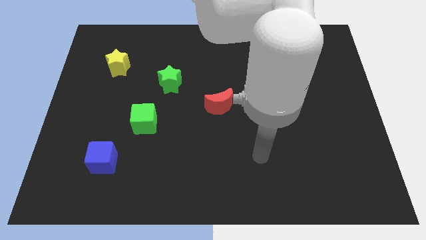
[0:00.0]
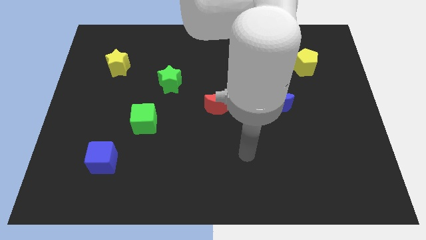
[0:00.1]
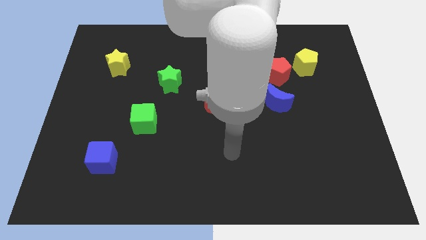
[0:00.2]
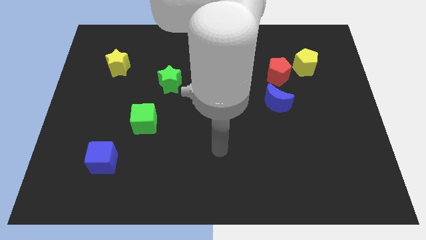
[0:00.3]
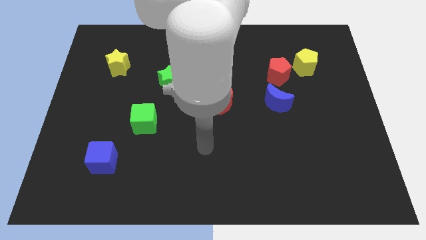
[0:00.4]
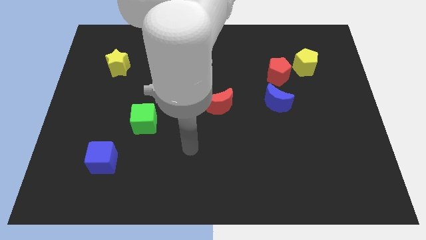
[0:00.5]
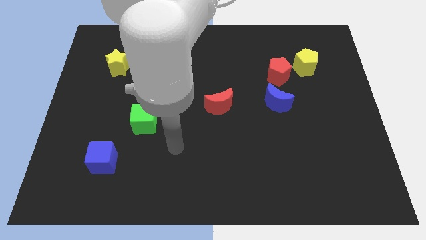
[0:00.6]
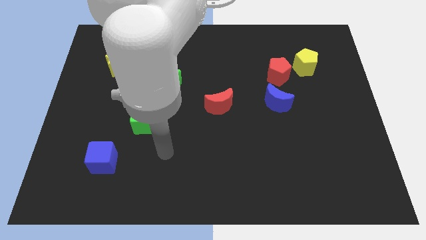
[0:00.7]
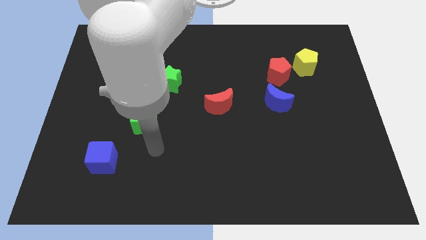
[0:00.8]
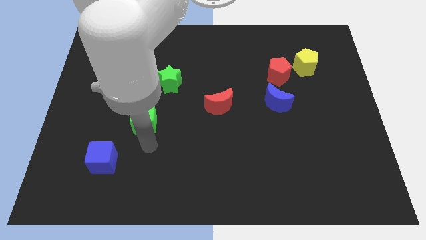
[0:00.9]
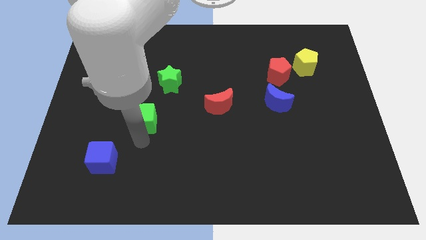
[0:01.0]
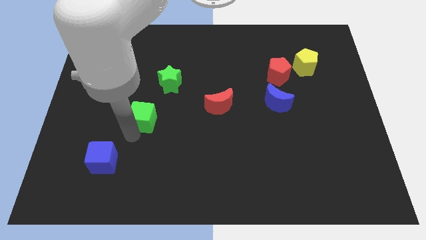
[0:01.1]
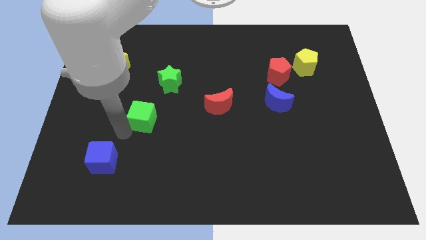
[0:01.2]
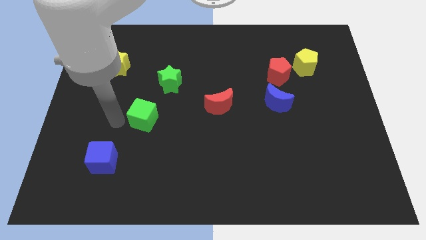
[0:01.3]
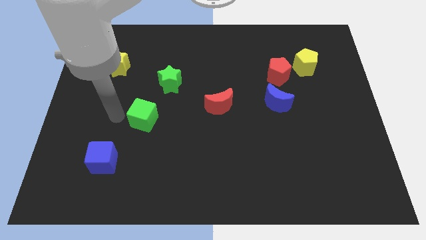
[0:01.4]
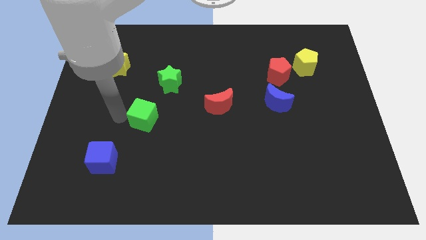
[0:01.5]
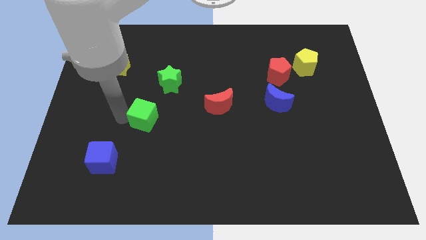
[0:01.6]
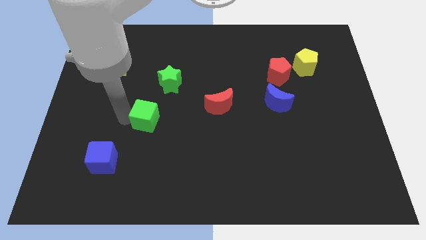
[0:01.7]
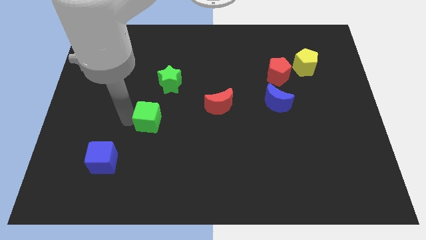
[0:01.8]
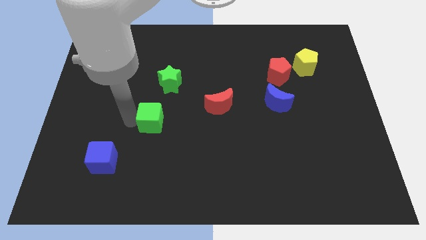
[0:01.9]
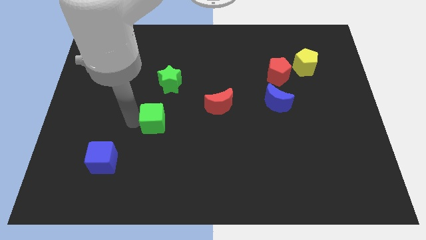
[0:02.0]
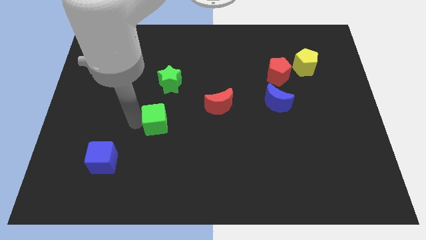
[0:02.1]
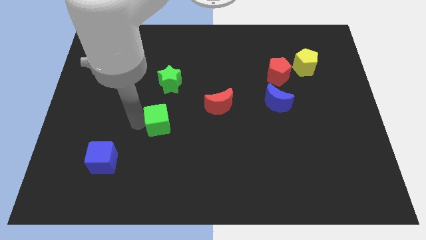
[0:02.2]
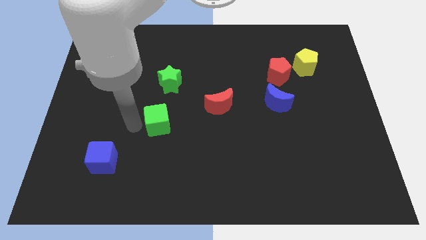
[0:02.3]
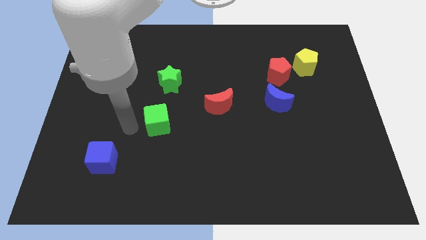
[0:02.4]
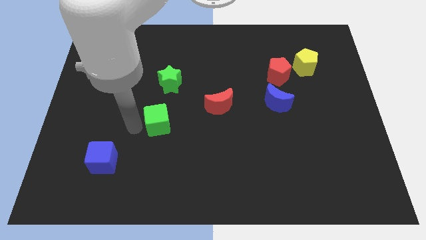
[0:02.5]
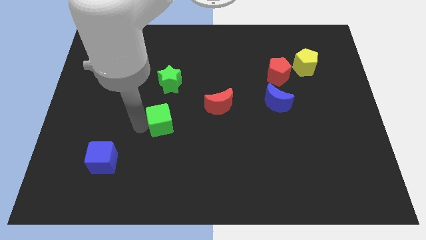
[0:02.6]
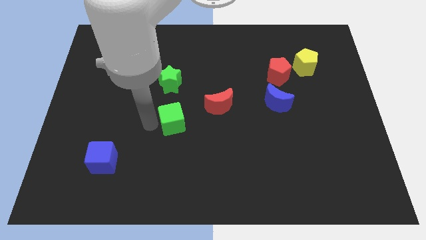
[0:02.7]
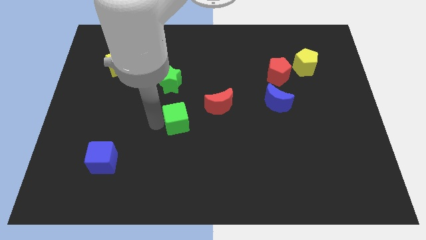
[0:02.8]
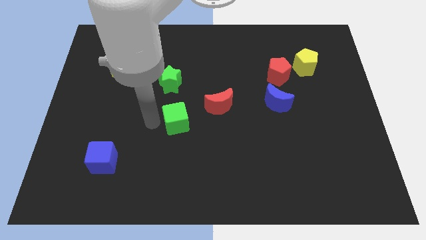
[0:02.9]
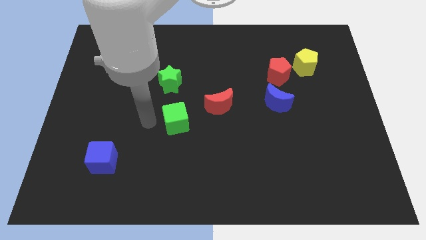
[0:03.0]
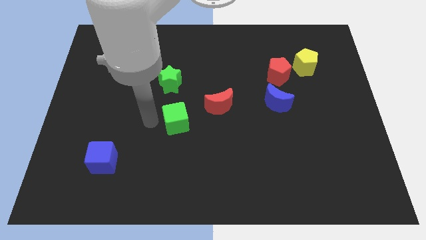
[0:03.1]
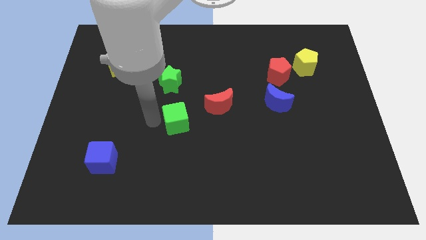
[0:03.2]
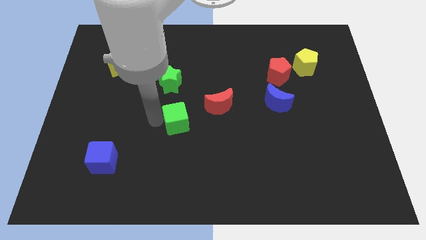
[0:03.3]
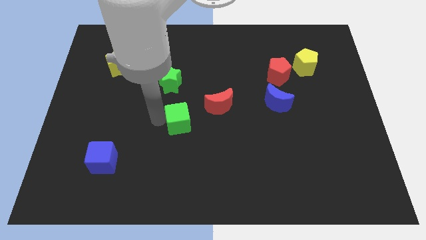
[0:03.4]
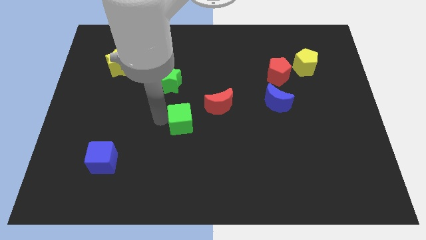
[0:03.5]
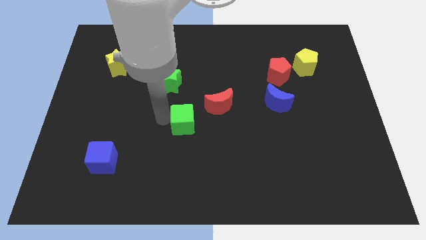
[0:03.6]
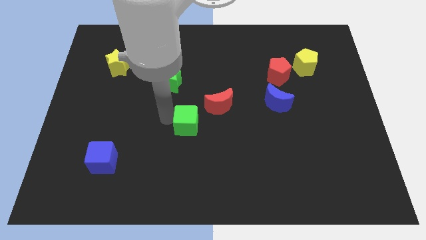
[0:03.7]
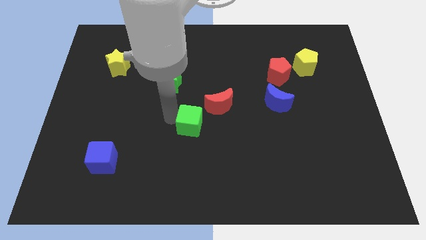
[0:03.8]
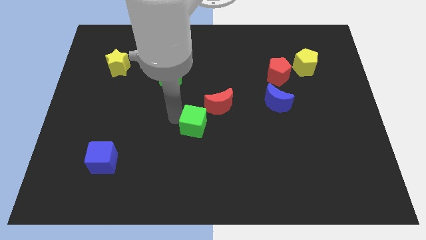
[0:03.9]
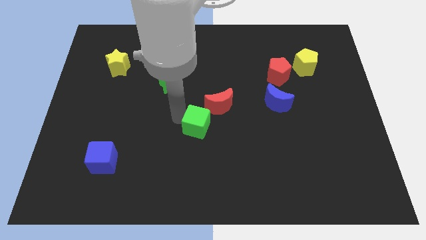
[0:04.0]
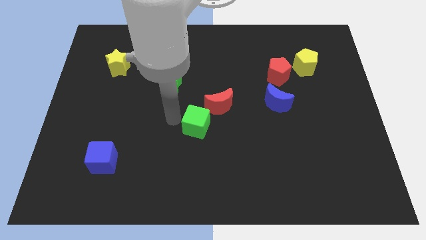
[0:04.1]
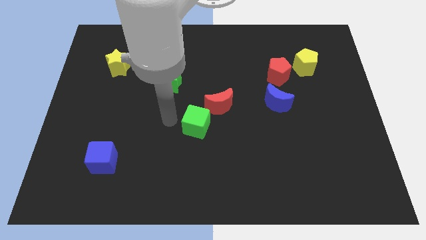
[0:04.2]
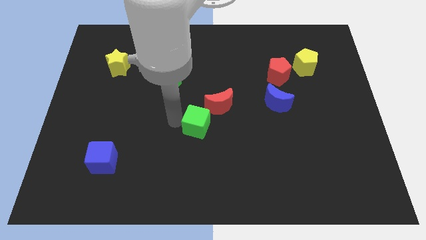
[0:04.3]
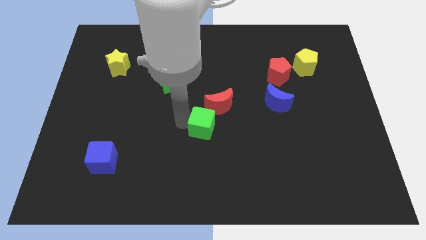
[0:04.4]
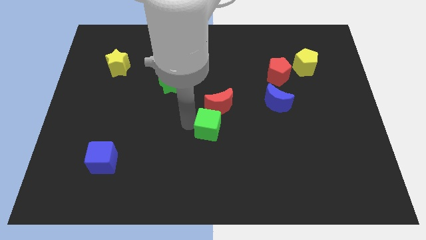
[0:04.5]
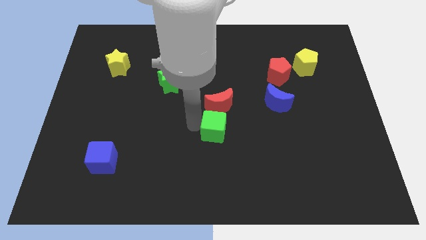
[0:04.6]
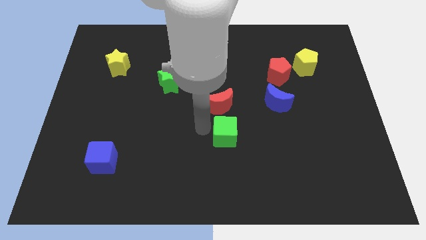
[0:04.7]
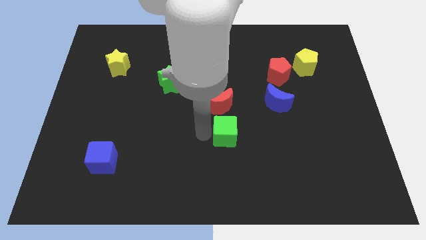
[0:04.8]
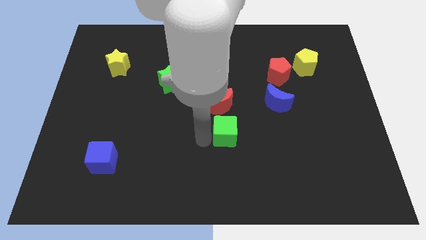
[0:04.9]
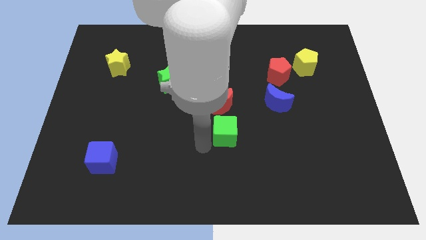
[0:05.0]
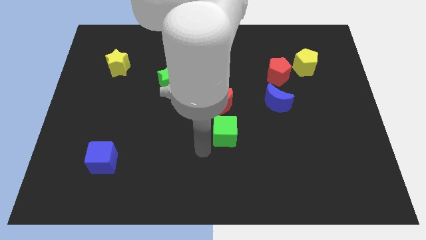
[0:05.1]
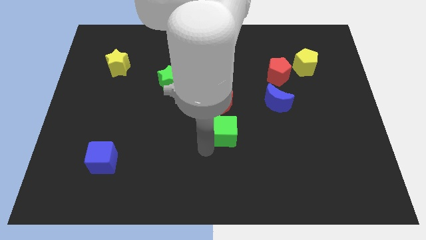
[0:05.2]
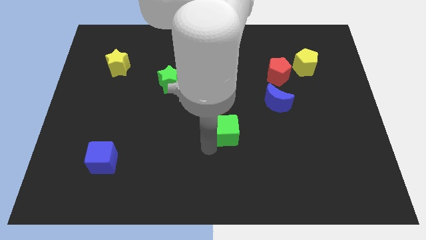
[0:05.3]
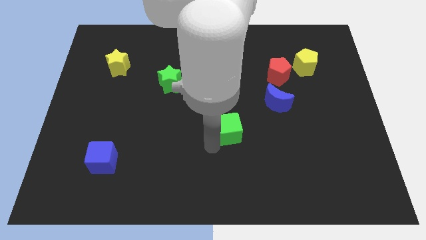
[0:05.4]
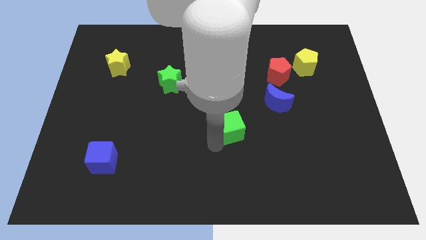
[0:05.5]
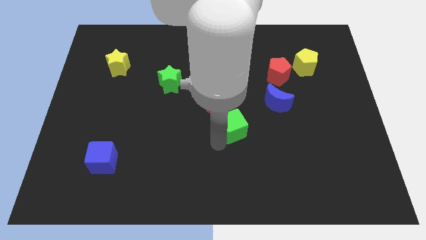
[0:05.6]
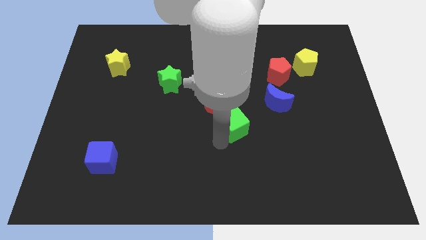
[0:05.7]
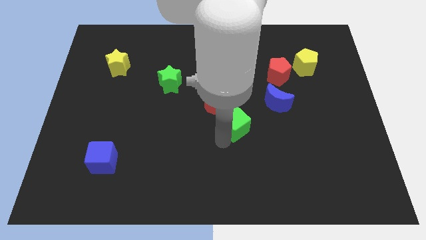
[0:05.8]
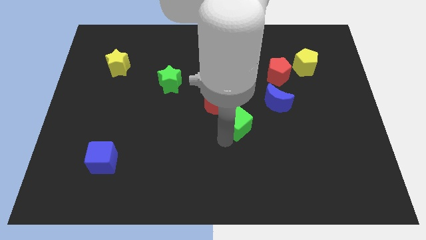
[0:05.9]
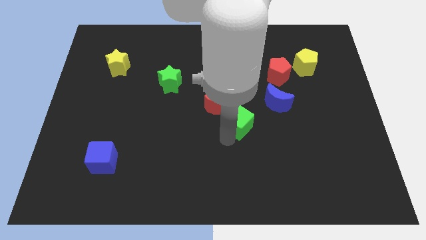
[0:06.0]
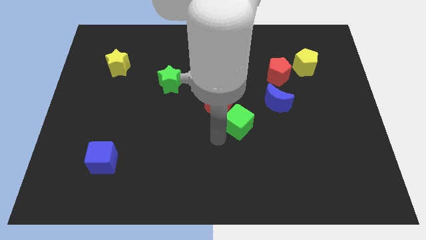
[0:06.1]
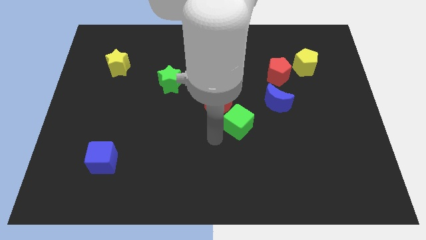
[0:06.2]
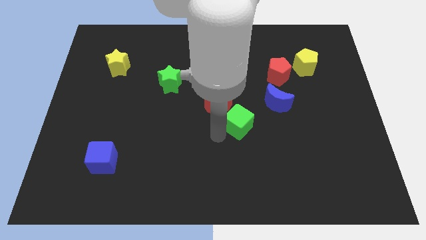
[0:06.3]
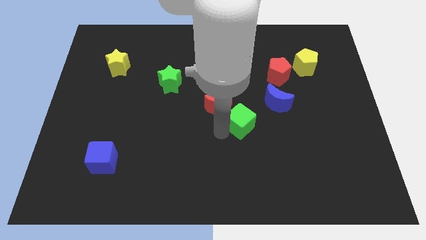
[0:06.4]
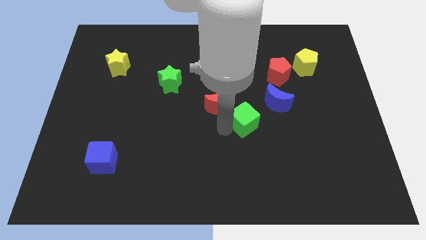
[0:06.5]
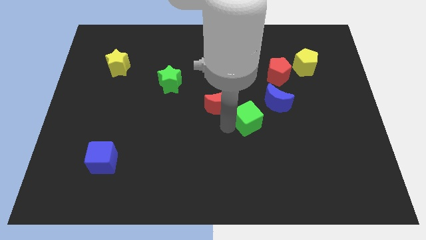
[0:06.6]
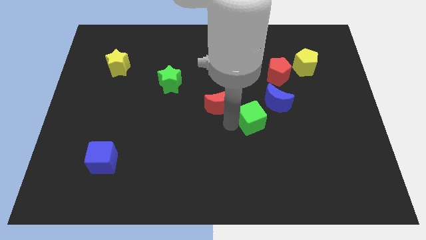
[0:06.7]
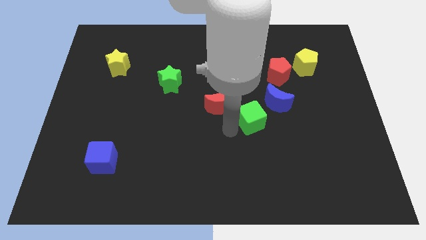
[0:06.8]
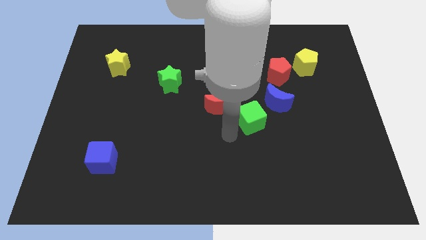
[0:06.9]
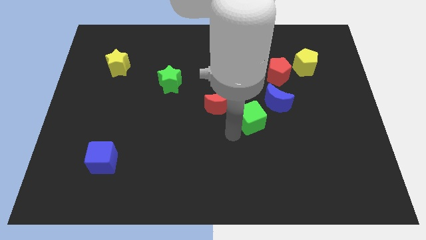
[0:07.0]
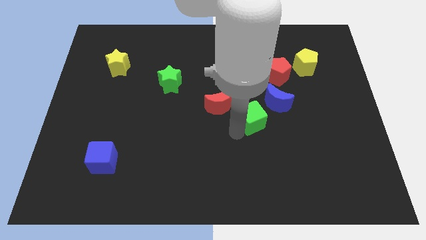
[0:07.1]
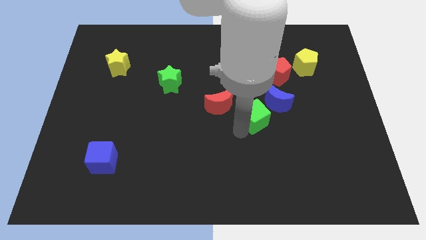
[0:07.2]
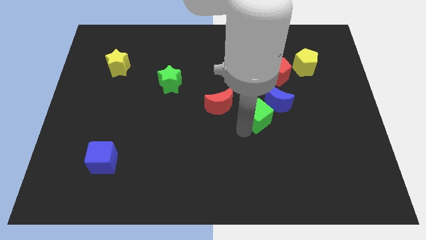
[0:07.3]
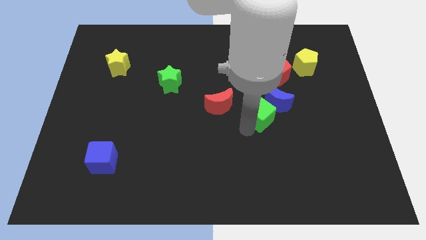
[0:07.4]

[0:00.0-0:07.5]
move the green cube to the blue moon

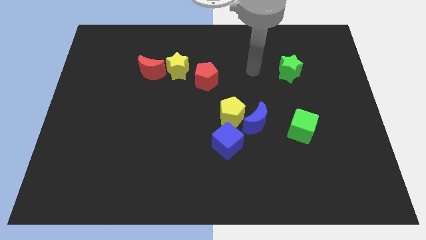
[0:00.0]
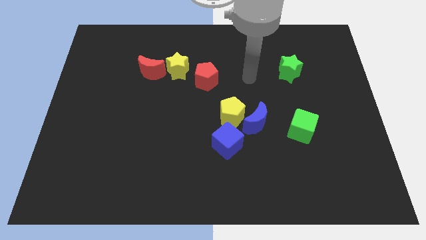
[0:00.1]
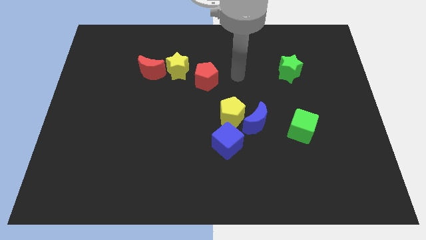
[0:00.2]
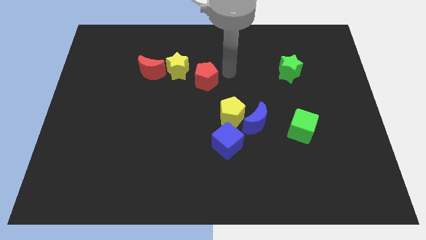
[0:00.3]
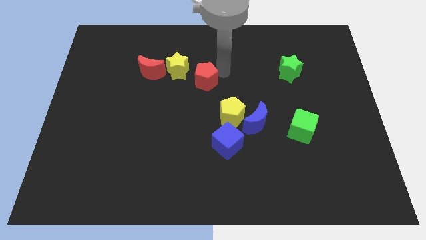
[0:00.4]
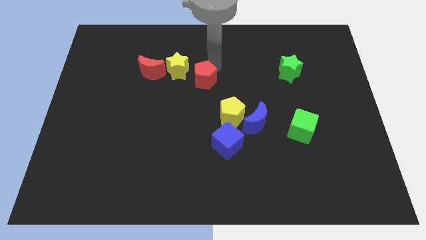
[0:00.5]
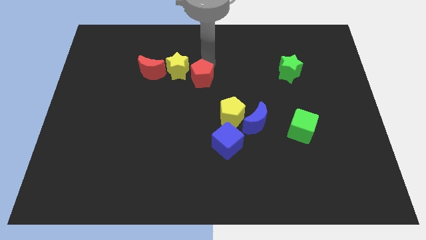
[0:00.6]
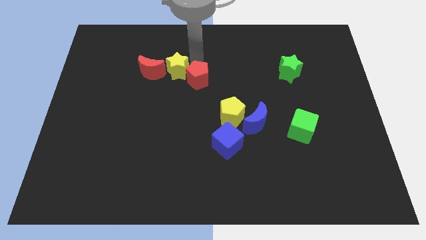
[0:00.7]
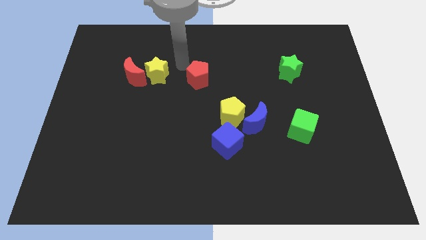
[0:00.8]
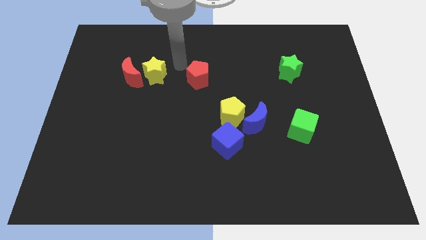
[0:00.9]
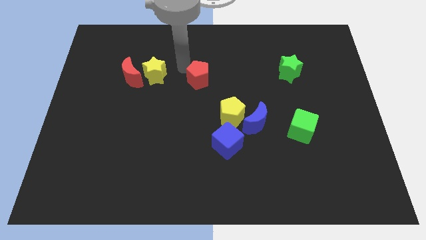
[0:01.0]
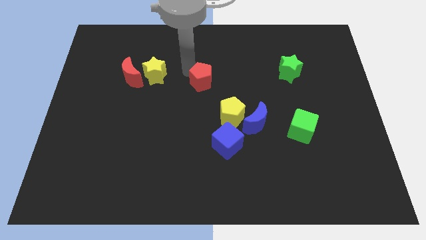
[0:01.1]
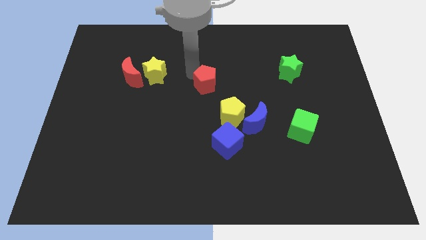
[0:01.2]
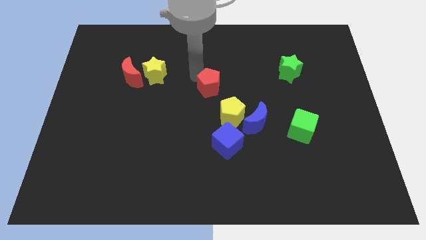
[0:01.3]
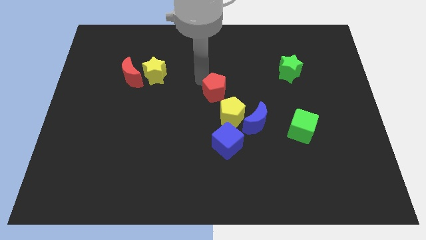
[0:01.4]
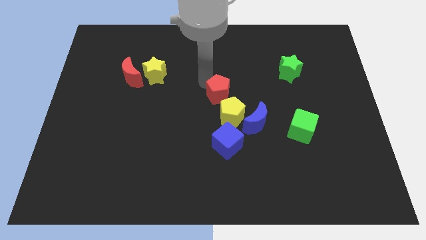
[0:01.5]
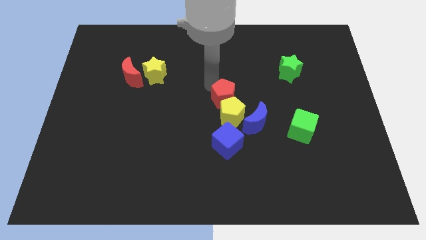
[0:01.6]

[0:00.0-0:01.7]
move the red pentagon close to the yellow pentagon
